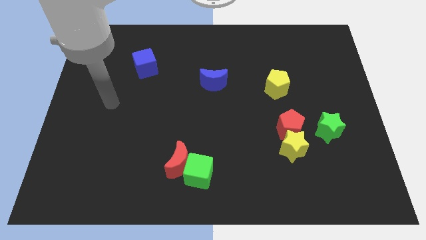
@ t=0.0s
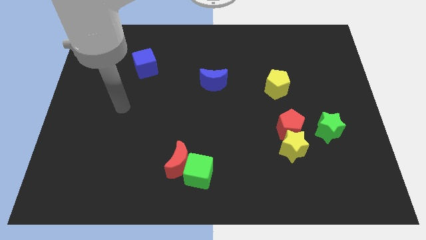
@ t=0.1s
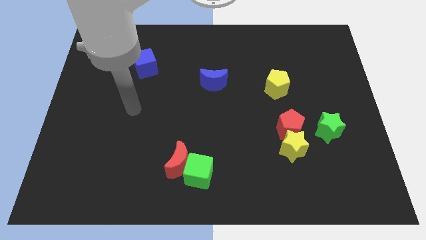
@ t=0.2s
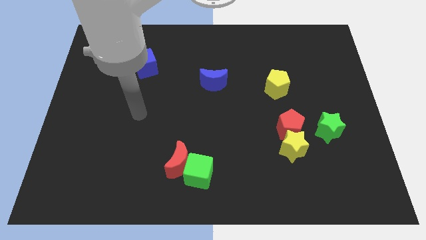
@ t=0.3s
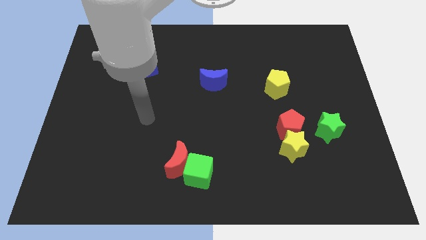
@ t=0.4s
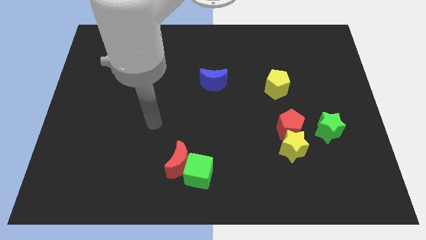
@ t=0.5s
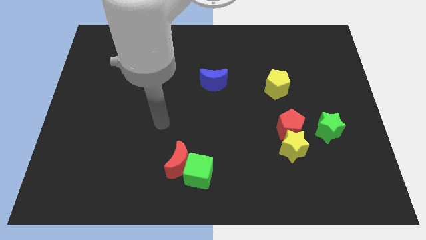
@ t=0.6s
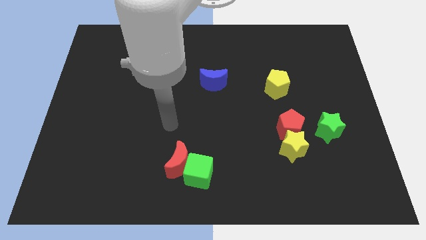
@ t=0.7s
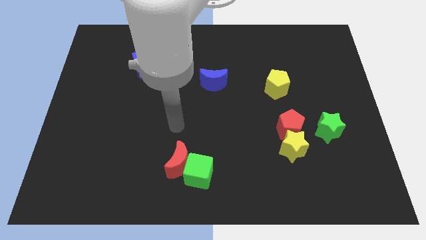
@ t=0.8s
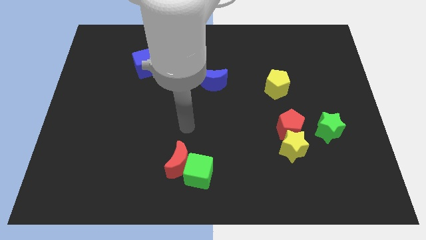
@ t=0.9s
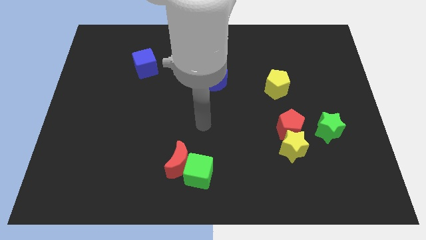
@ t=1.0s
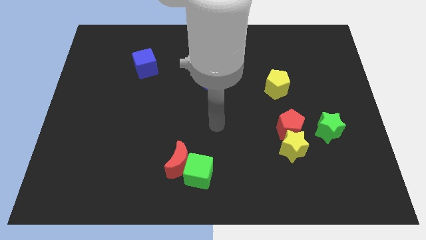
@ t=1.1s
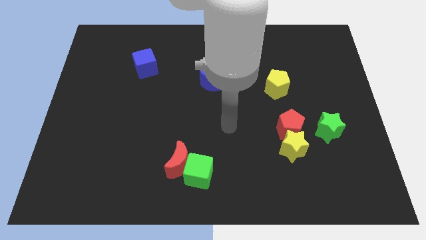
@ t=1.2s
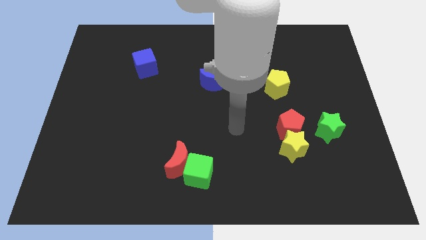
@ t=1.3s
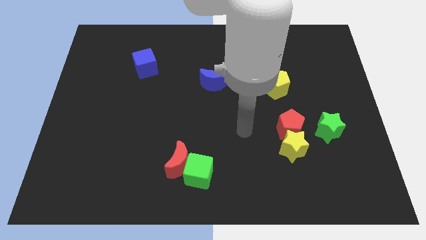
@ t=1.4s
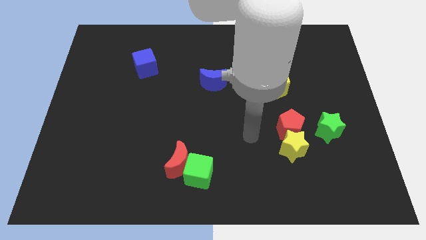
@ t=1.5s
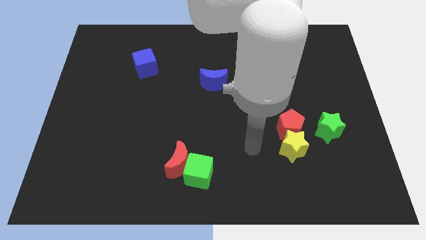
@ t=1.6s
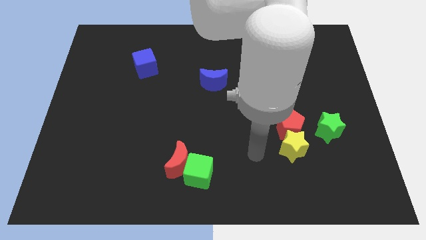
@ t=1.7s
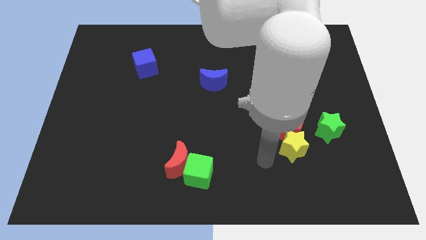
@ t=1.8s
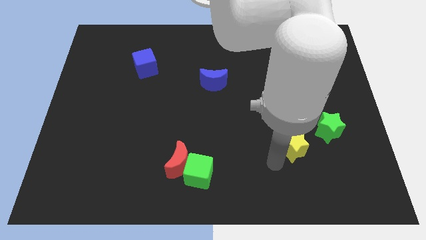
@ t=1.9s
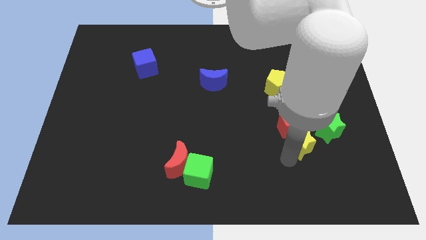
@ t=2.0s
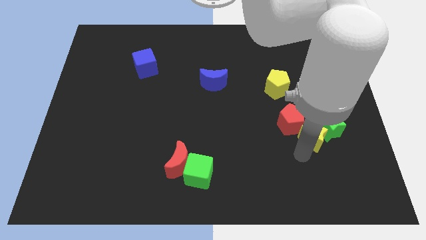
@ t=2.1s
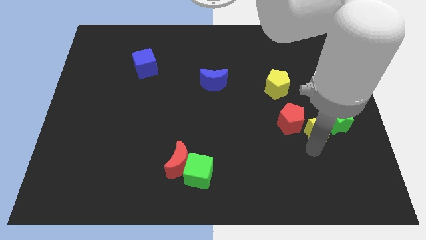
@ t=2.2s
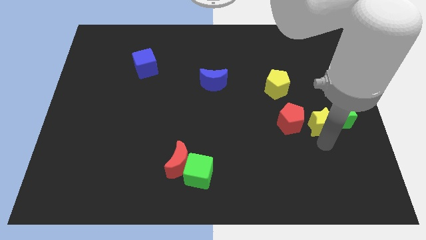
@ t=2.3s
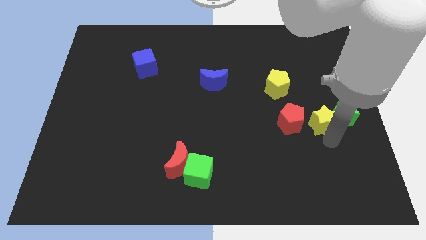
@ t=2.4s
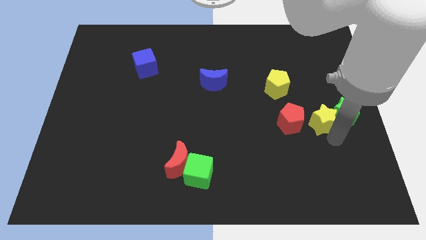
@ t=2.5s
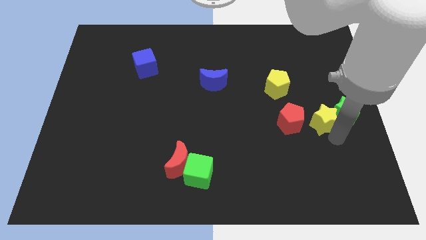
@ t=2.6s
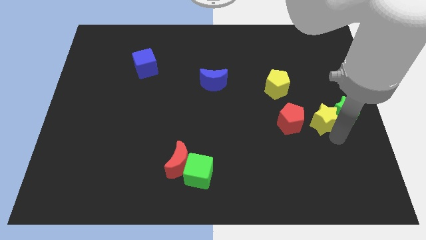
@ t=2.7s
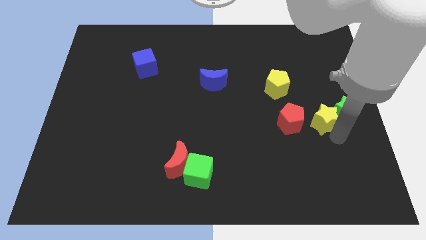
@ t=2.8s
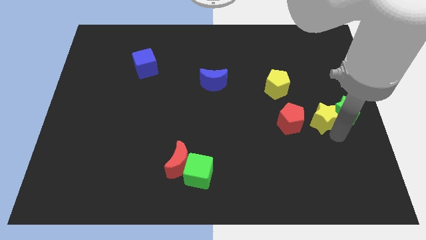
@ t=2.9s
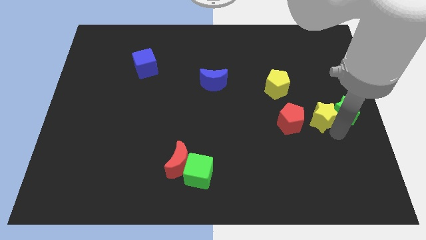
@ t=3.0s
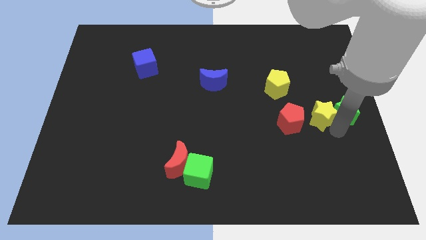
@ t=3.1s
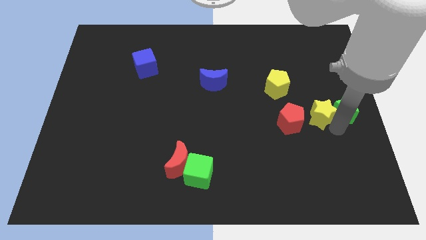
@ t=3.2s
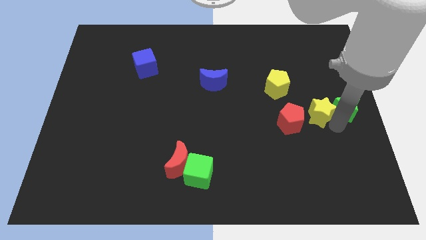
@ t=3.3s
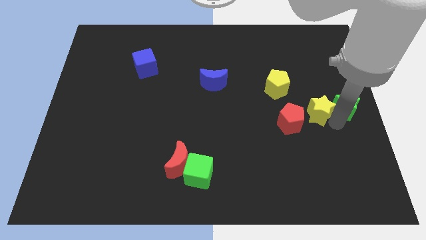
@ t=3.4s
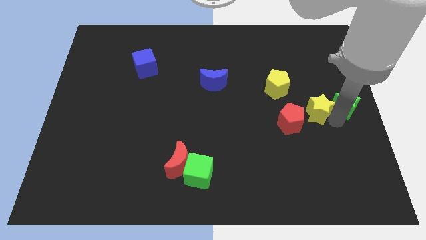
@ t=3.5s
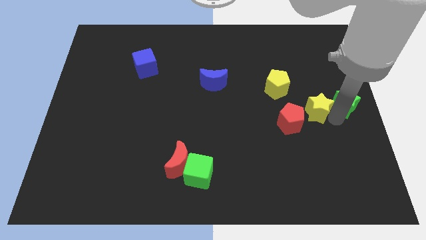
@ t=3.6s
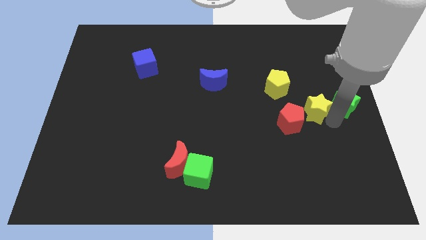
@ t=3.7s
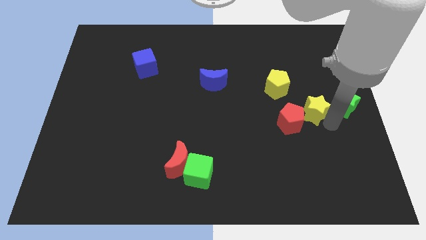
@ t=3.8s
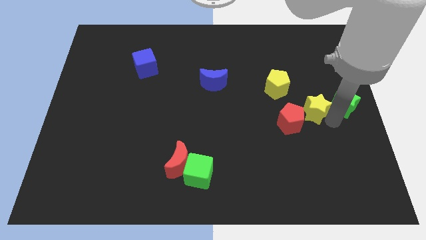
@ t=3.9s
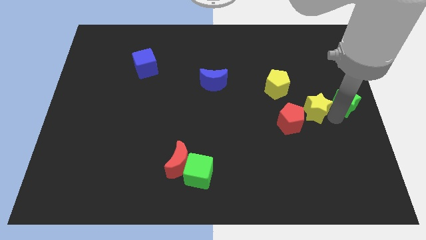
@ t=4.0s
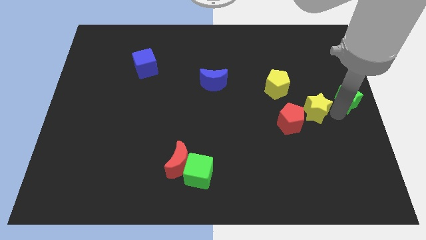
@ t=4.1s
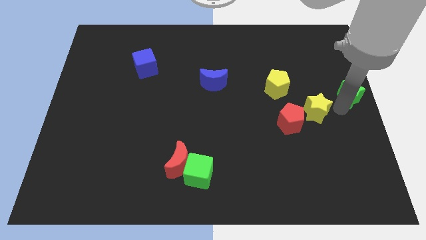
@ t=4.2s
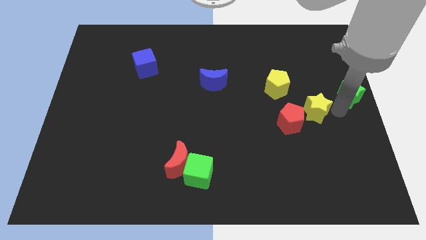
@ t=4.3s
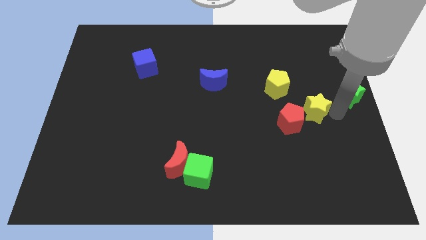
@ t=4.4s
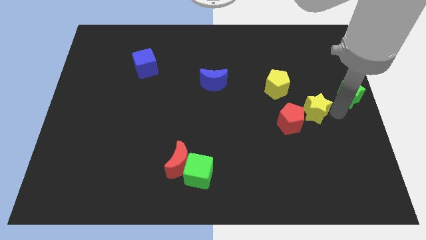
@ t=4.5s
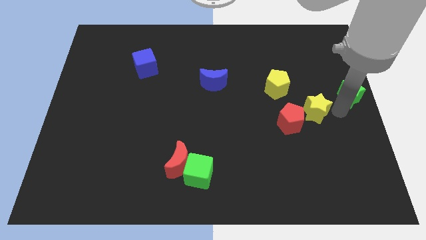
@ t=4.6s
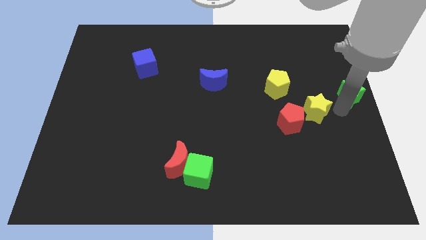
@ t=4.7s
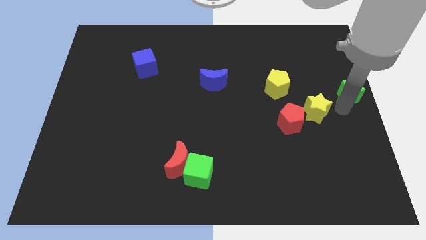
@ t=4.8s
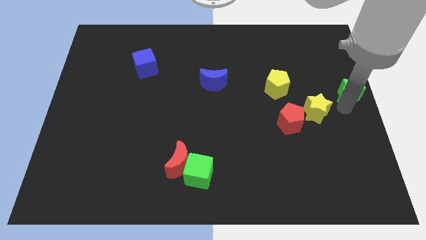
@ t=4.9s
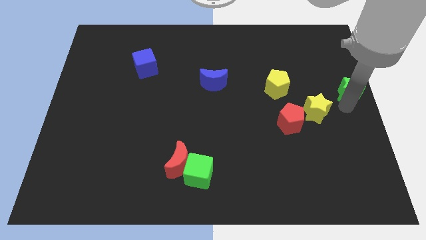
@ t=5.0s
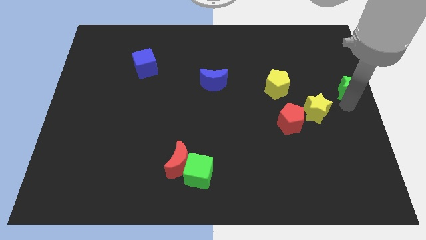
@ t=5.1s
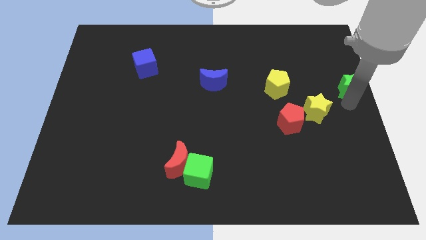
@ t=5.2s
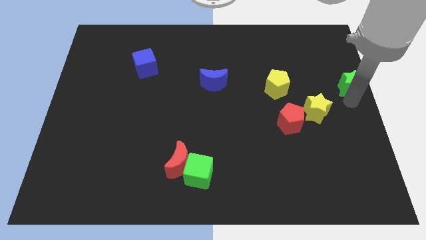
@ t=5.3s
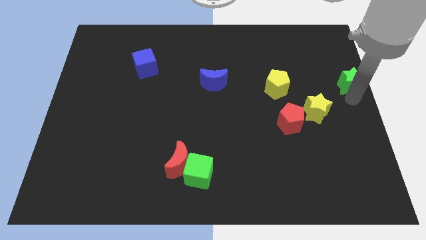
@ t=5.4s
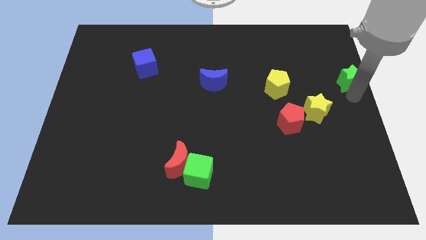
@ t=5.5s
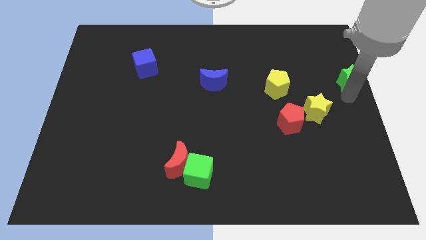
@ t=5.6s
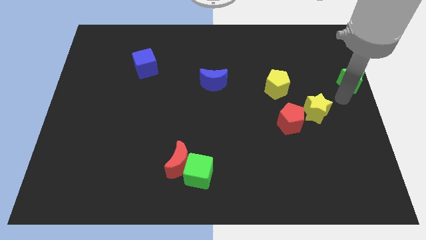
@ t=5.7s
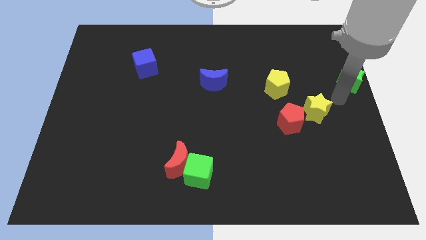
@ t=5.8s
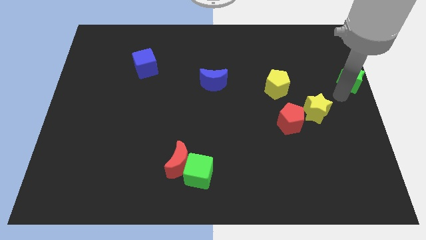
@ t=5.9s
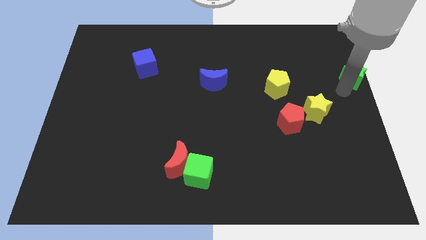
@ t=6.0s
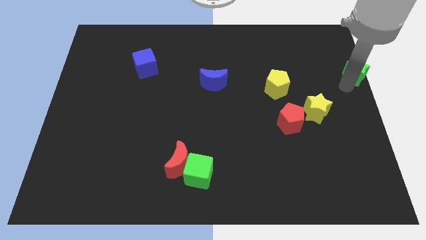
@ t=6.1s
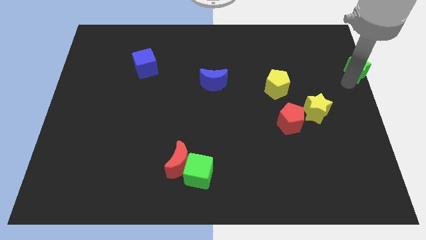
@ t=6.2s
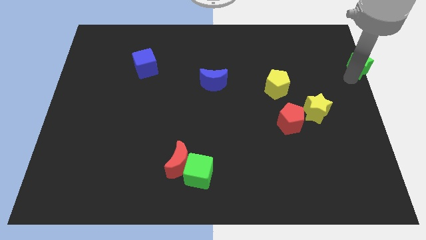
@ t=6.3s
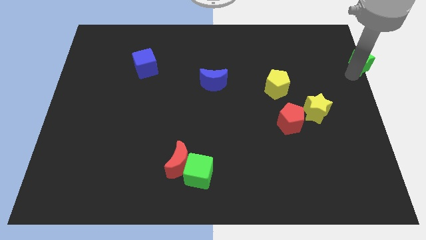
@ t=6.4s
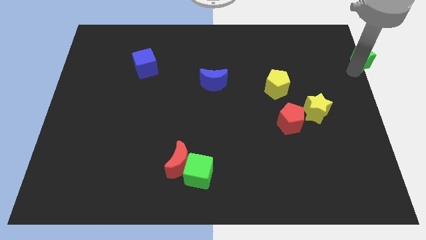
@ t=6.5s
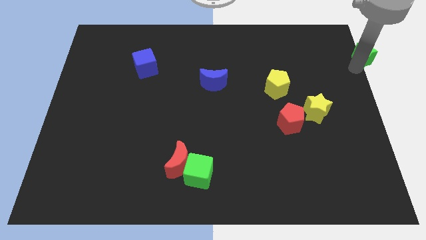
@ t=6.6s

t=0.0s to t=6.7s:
move the green star to the top right of the board
